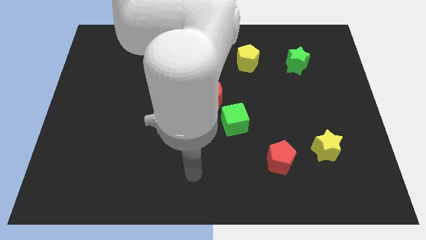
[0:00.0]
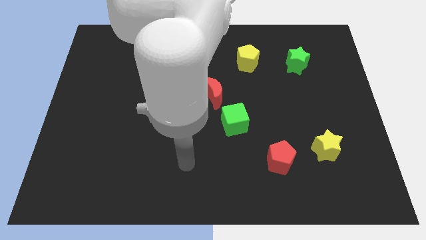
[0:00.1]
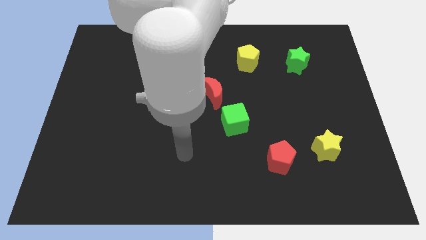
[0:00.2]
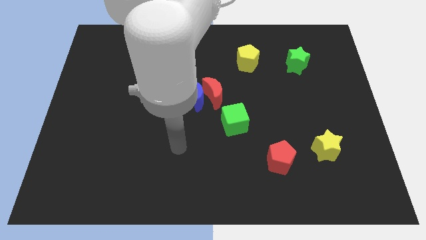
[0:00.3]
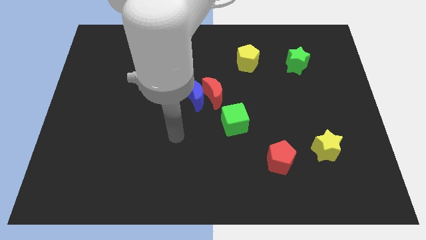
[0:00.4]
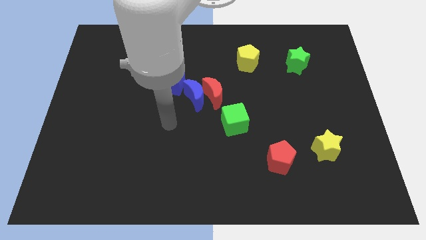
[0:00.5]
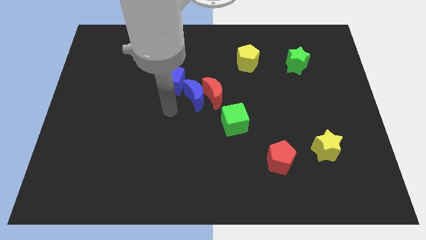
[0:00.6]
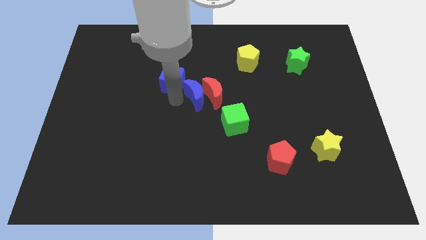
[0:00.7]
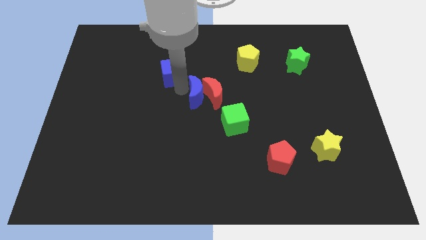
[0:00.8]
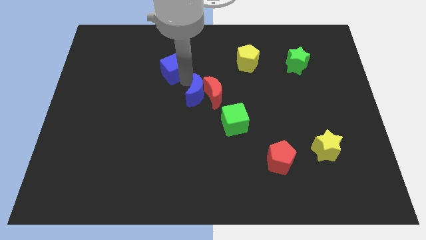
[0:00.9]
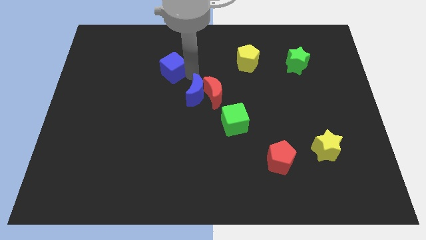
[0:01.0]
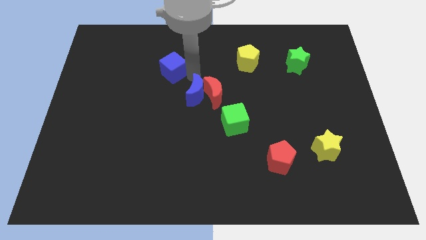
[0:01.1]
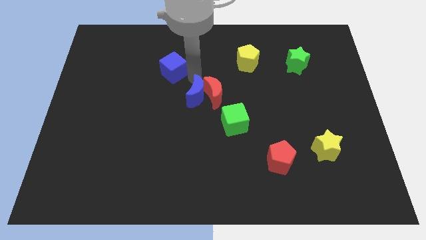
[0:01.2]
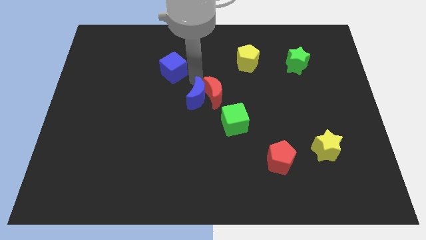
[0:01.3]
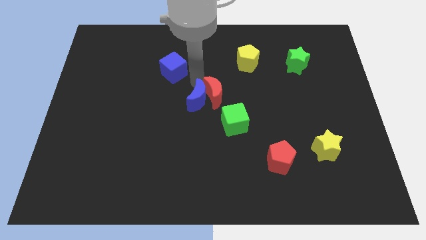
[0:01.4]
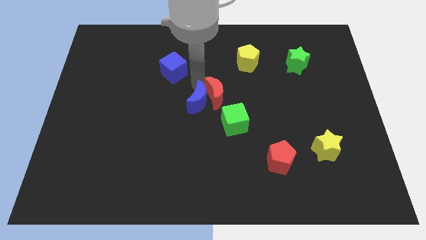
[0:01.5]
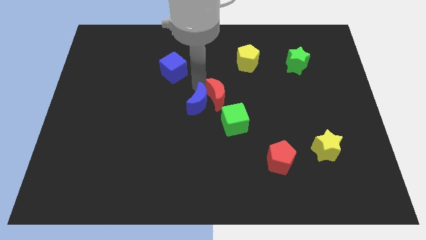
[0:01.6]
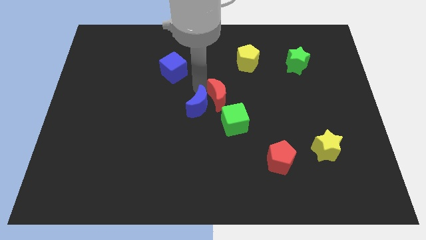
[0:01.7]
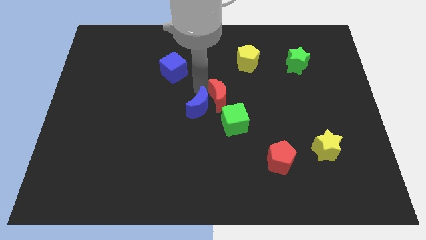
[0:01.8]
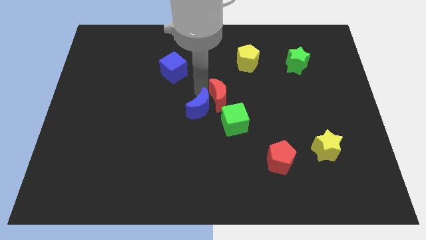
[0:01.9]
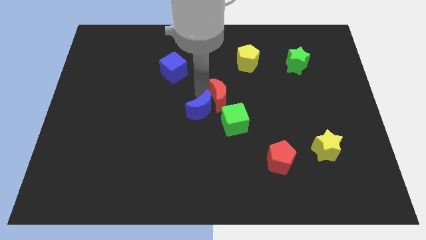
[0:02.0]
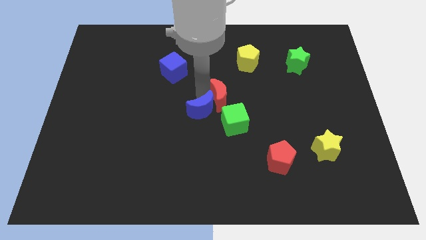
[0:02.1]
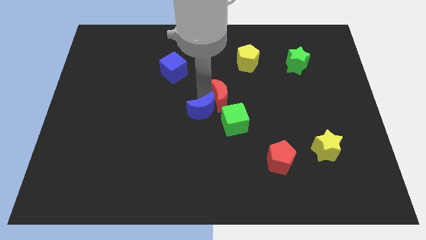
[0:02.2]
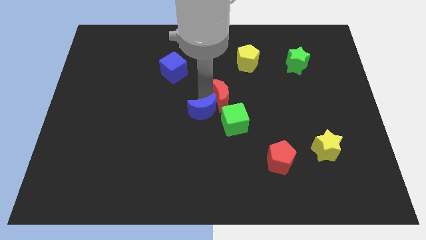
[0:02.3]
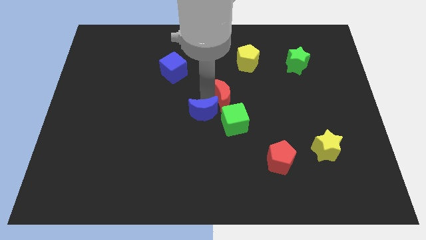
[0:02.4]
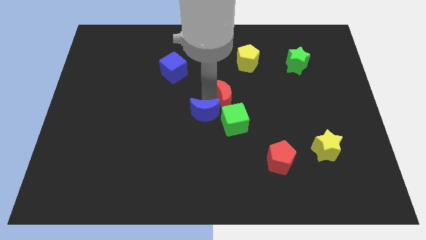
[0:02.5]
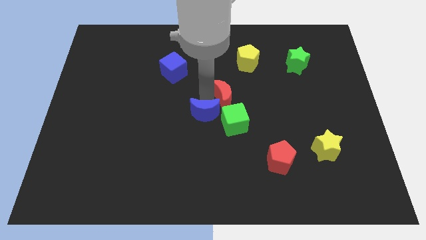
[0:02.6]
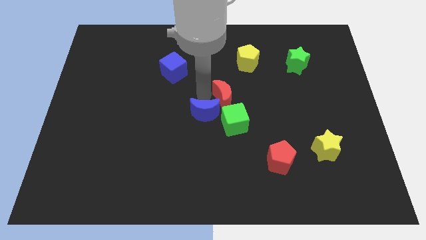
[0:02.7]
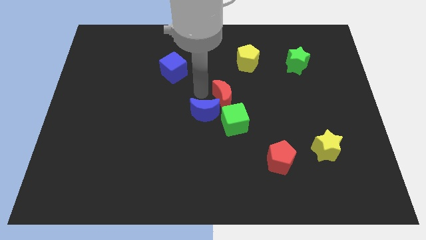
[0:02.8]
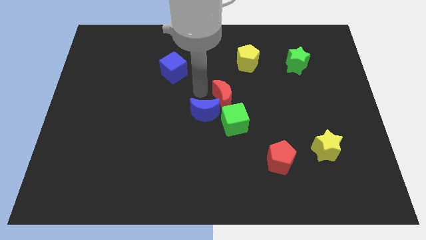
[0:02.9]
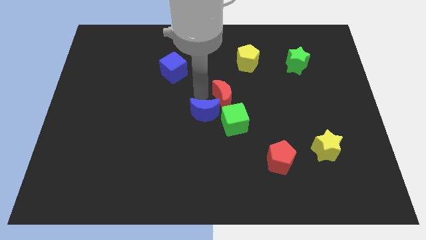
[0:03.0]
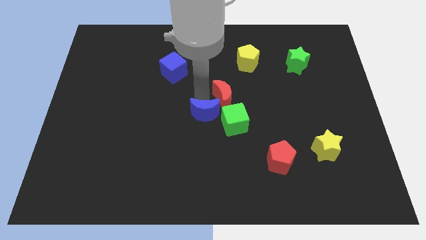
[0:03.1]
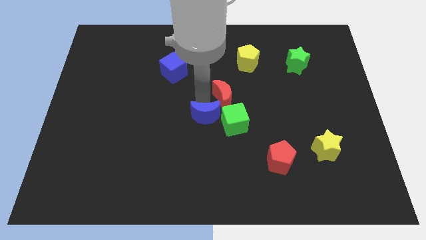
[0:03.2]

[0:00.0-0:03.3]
separate the blue moon from the red moon and blue cube

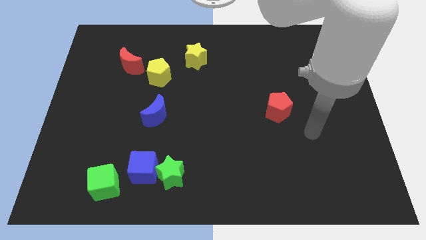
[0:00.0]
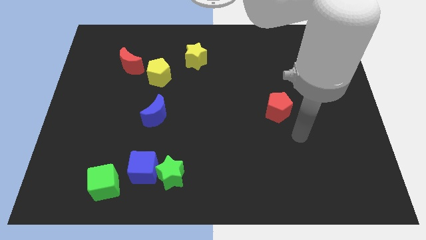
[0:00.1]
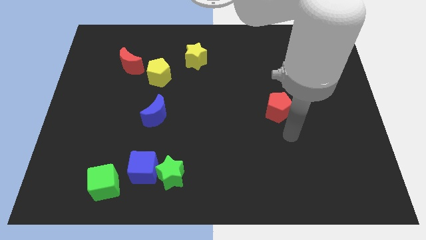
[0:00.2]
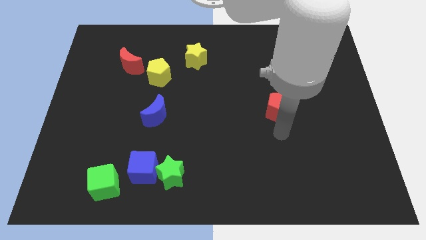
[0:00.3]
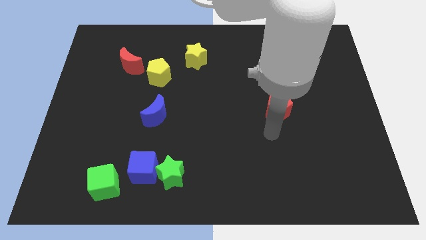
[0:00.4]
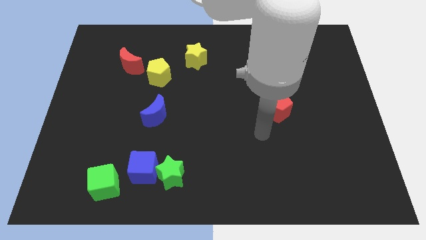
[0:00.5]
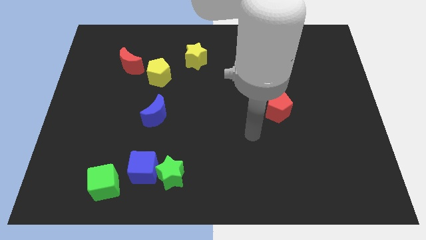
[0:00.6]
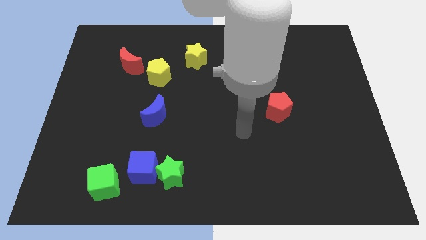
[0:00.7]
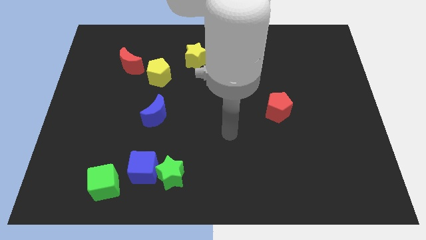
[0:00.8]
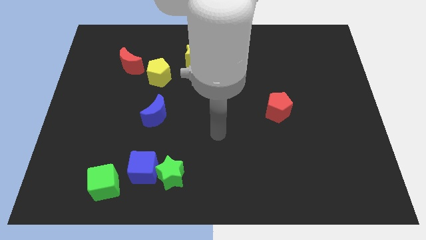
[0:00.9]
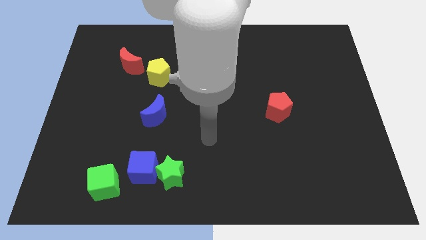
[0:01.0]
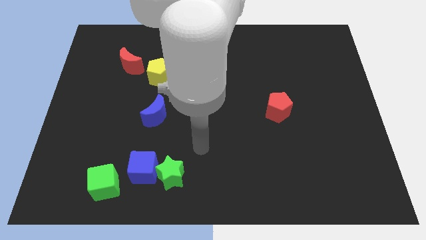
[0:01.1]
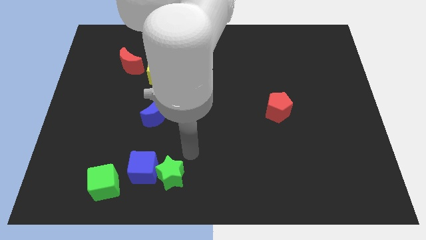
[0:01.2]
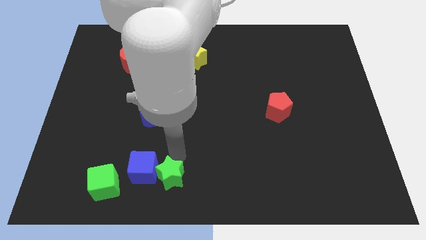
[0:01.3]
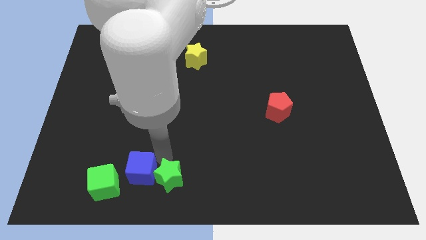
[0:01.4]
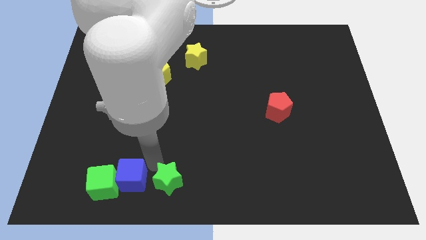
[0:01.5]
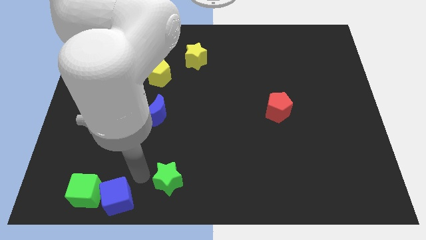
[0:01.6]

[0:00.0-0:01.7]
move the green star away from the blue cube

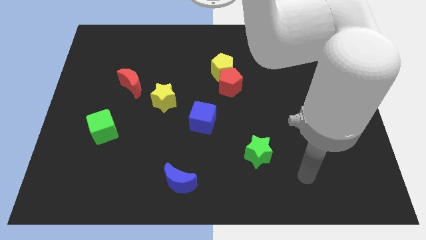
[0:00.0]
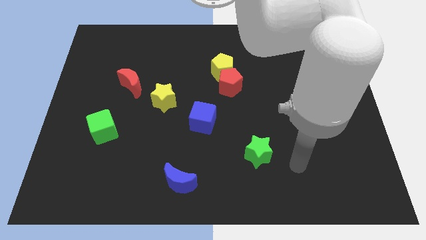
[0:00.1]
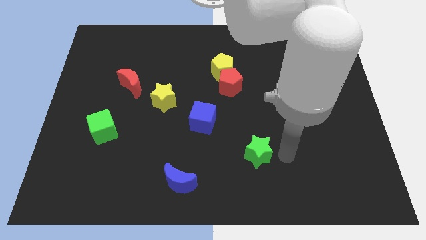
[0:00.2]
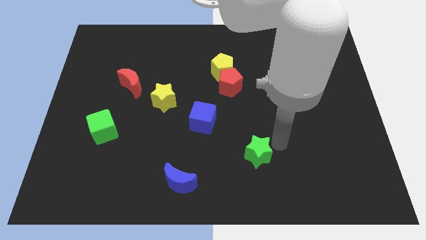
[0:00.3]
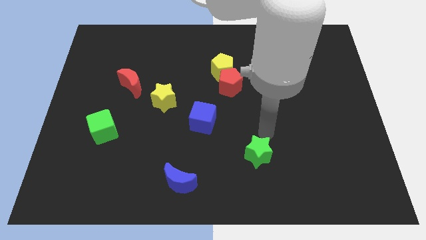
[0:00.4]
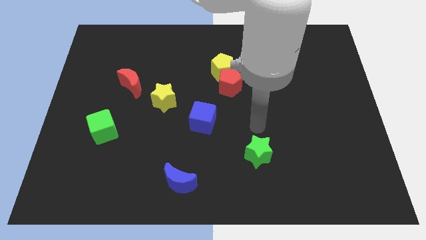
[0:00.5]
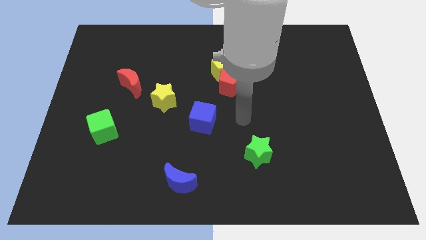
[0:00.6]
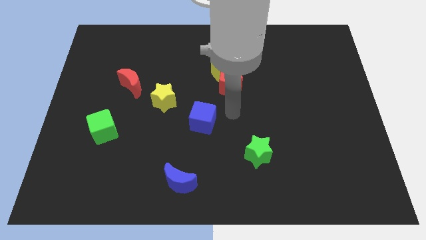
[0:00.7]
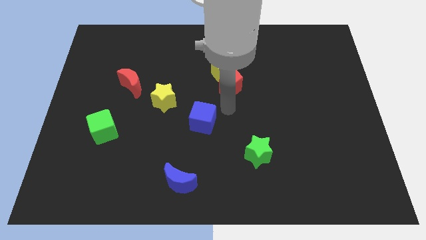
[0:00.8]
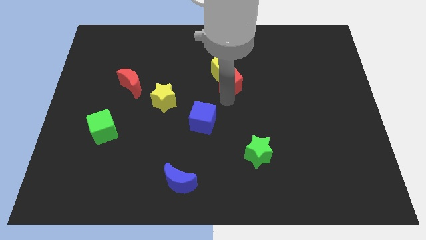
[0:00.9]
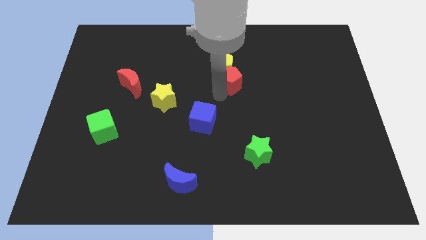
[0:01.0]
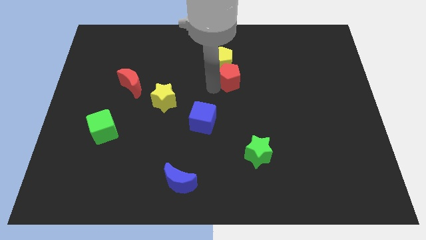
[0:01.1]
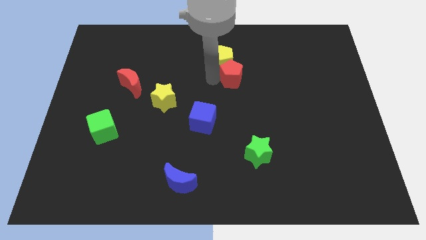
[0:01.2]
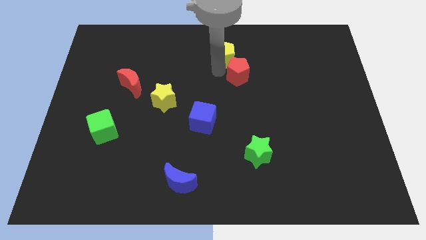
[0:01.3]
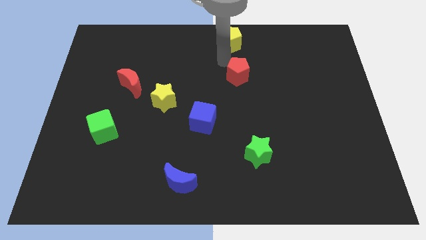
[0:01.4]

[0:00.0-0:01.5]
move the red pentagon away from the yellow pentagon

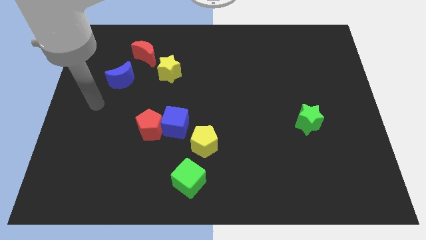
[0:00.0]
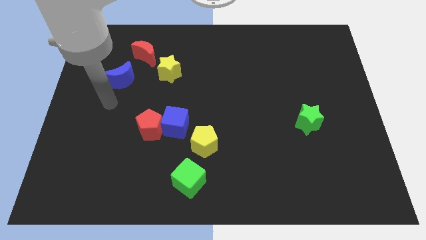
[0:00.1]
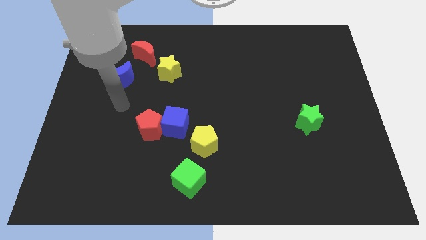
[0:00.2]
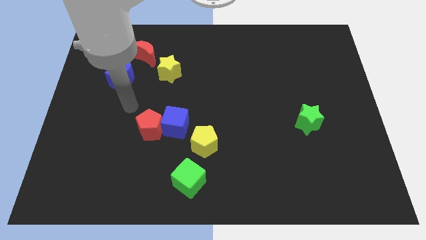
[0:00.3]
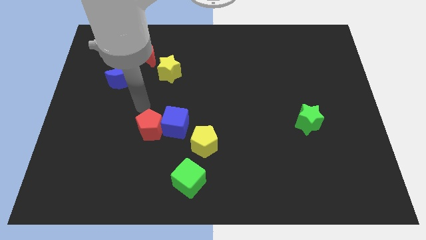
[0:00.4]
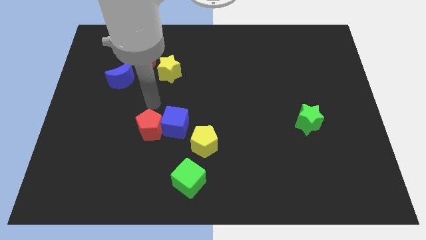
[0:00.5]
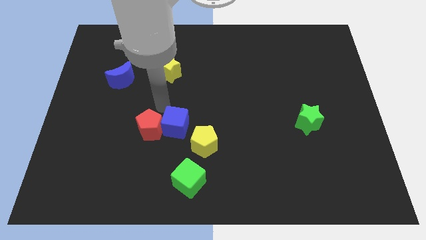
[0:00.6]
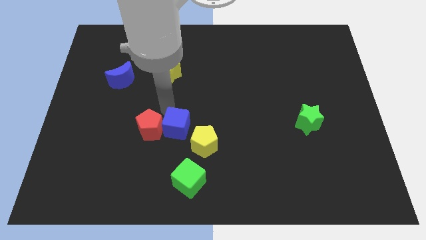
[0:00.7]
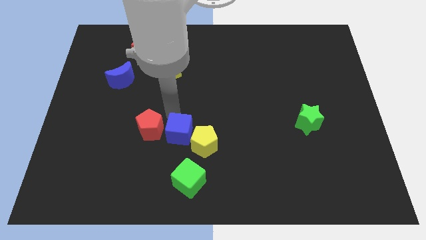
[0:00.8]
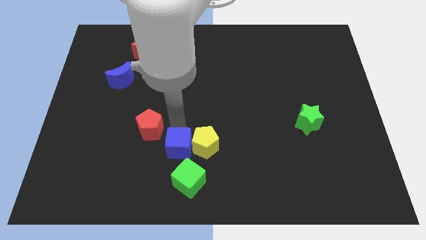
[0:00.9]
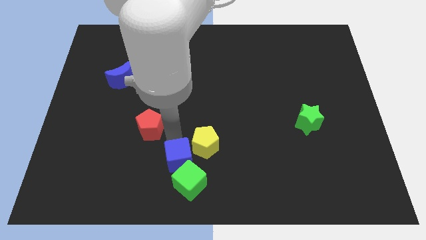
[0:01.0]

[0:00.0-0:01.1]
pull the red pentagon apart from the blue cube

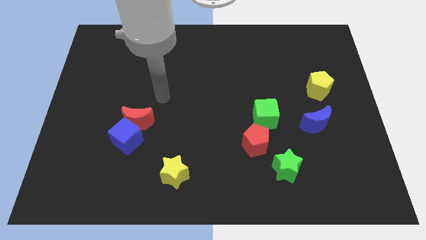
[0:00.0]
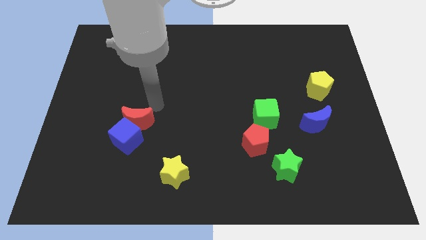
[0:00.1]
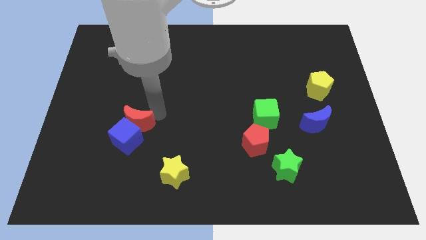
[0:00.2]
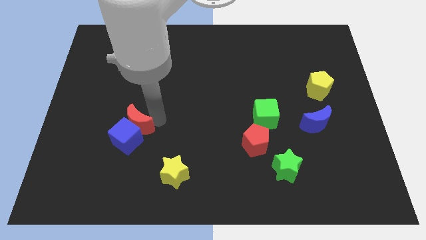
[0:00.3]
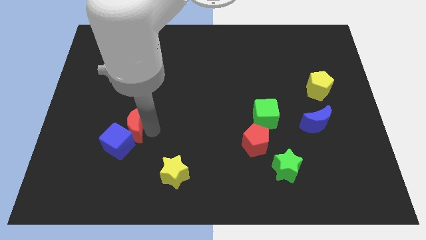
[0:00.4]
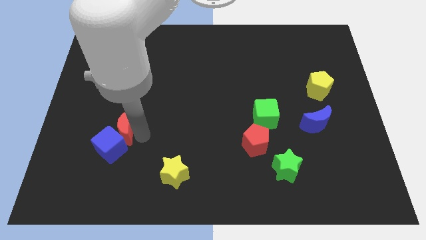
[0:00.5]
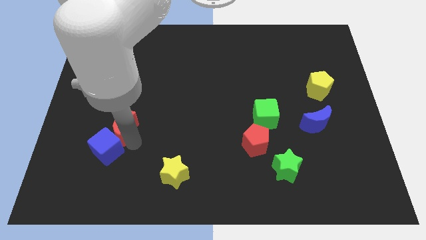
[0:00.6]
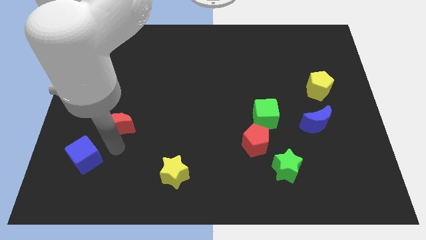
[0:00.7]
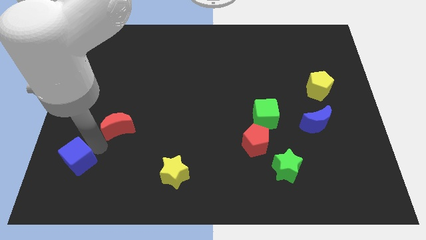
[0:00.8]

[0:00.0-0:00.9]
pull the red moon apart from the blue cube

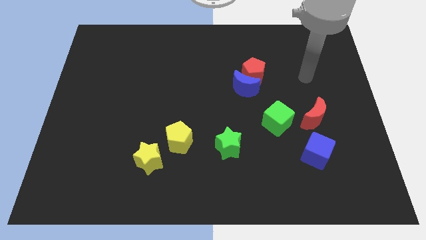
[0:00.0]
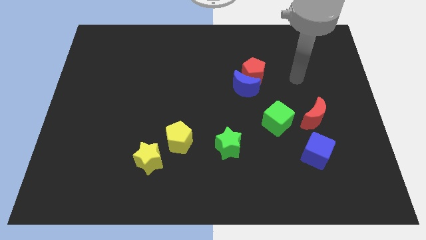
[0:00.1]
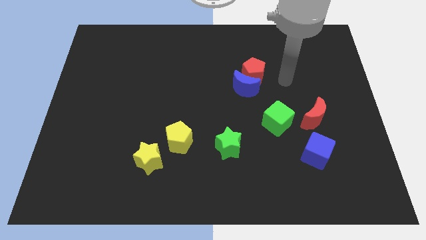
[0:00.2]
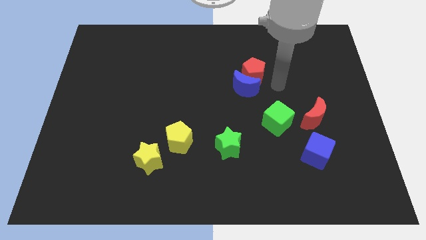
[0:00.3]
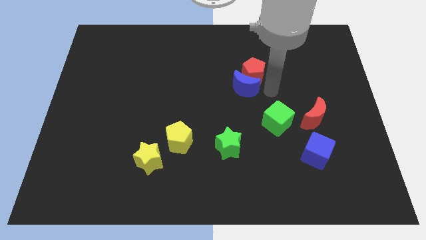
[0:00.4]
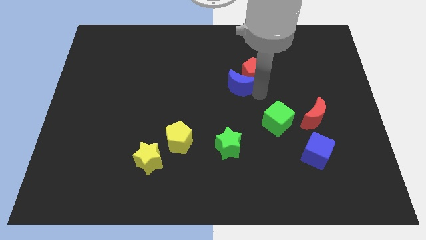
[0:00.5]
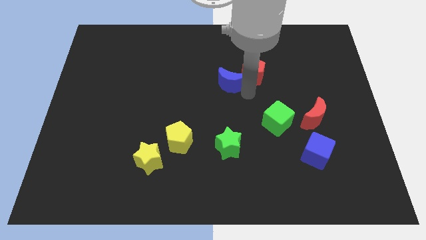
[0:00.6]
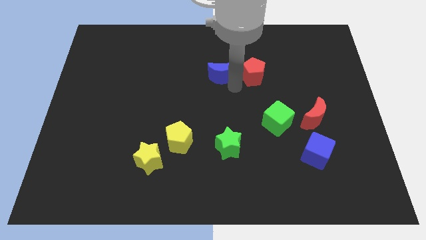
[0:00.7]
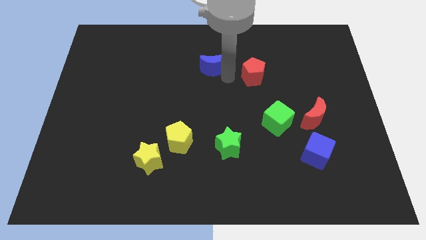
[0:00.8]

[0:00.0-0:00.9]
separate the red pentagon from the blue moon
